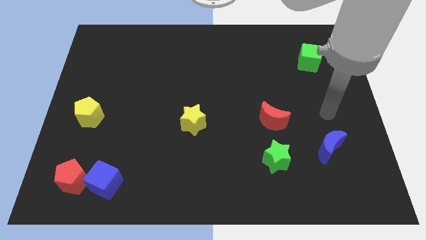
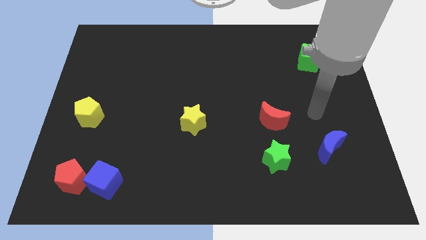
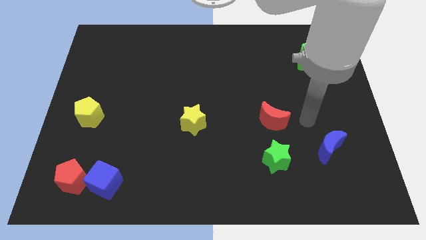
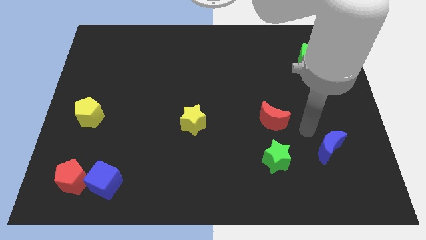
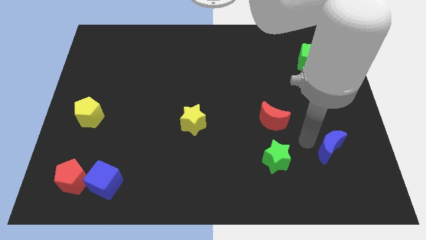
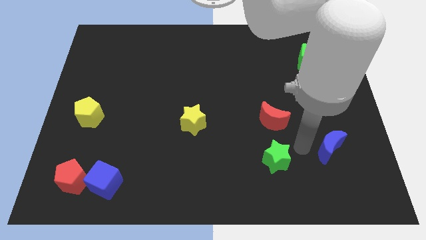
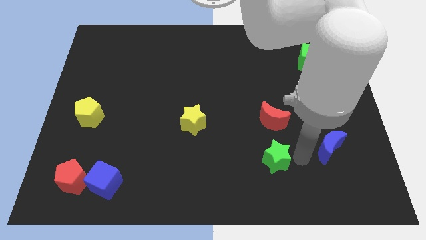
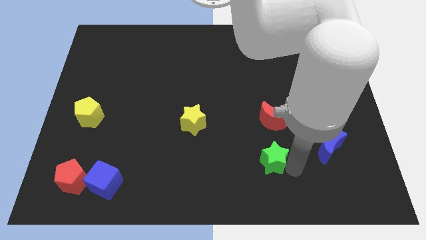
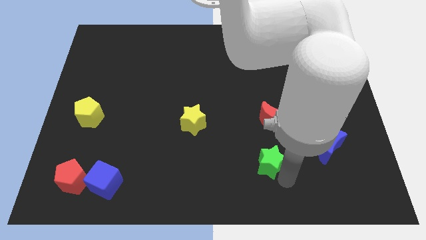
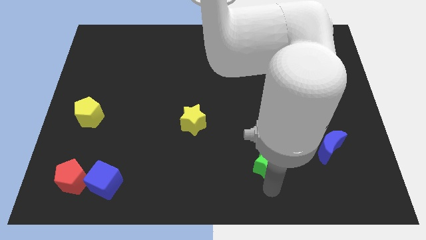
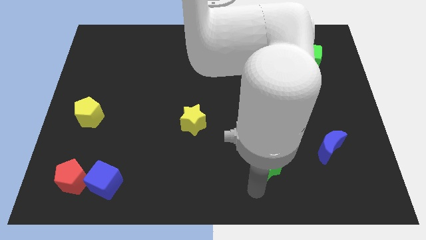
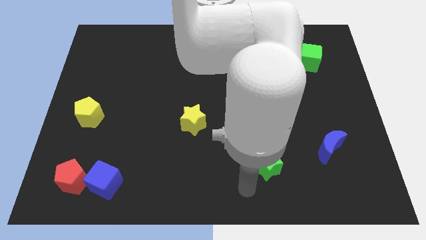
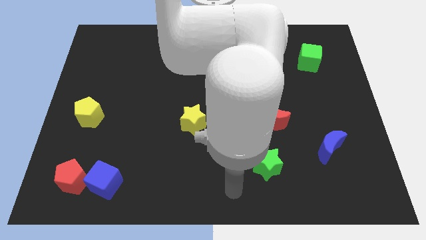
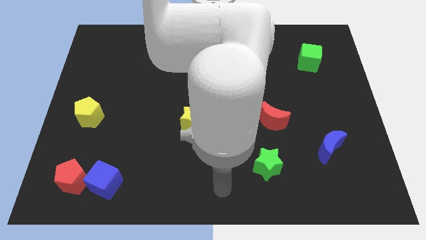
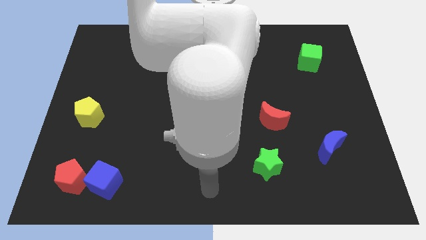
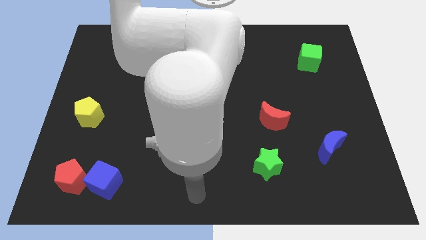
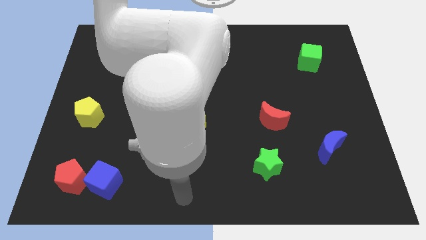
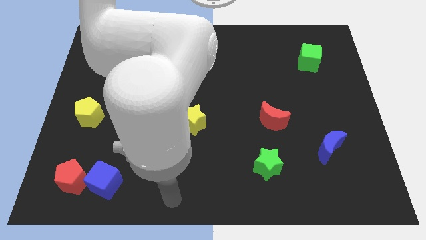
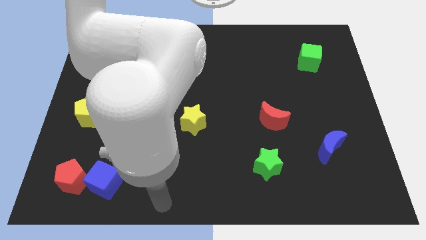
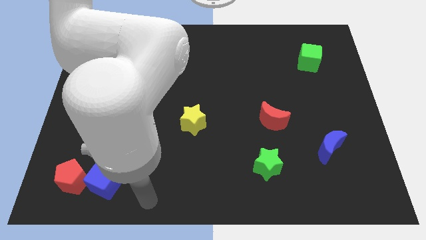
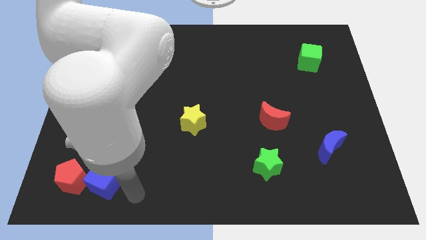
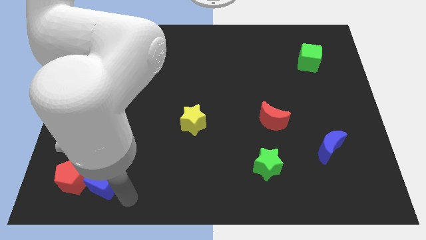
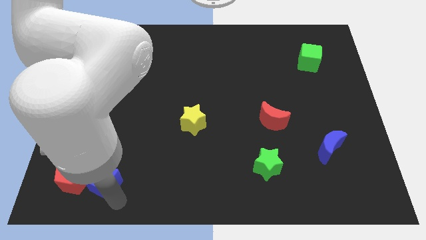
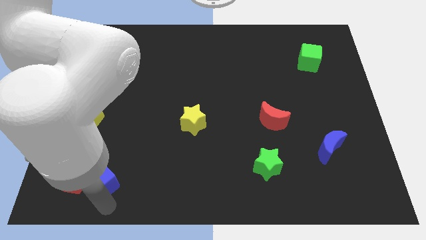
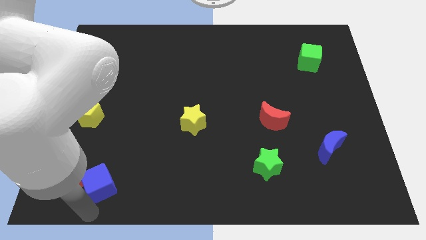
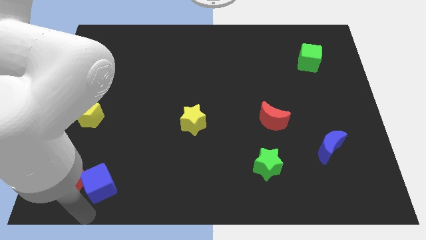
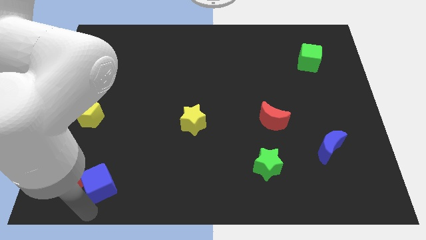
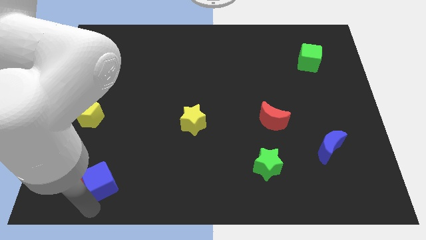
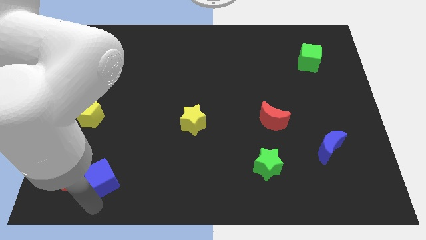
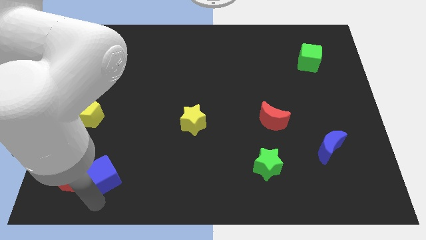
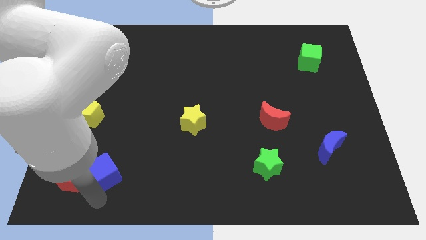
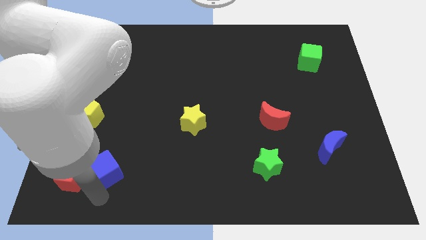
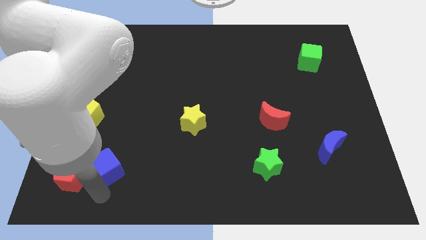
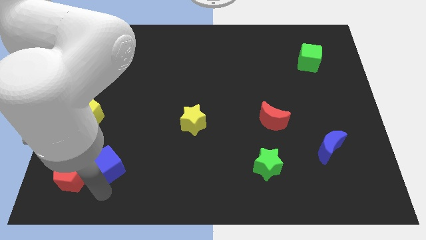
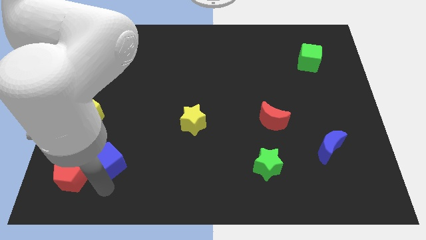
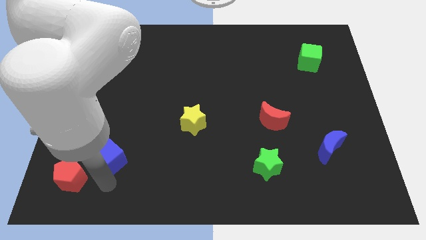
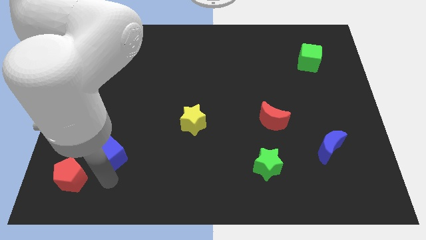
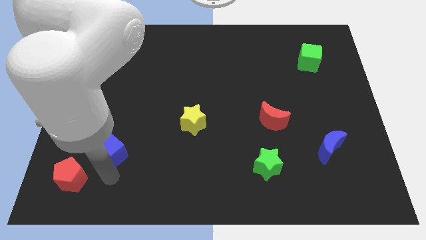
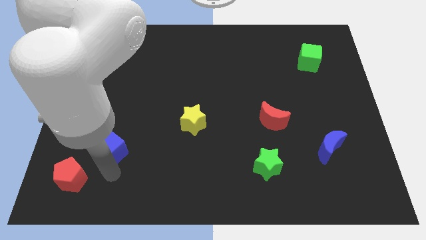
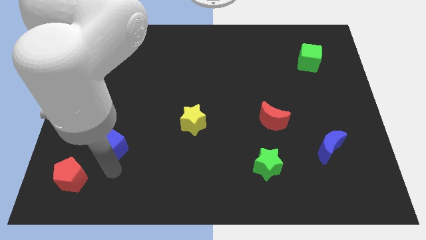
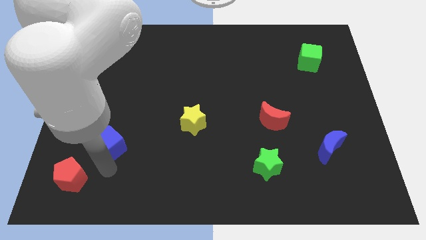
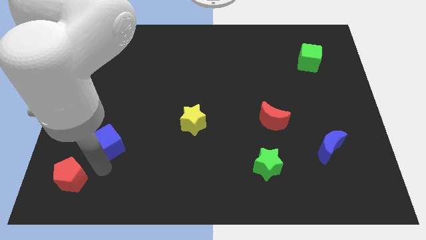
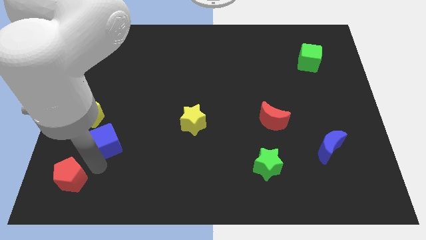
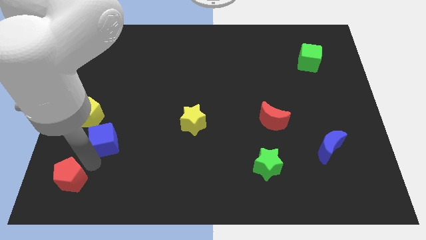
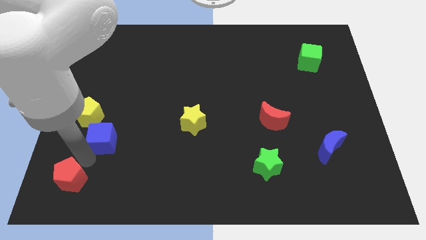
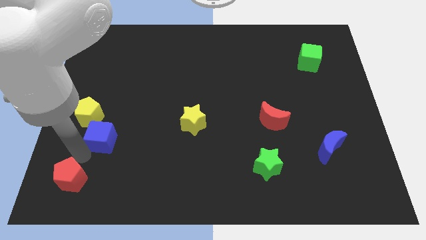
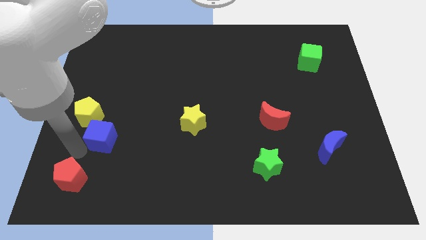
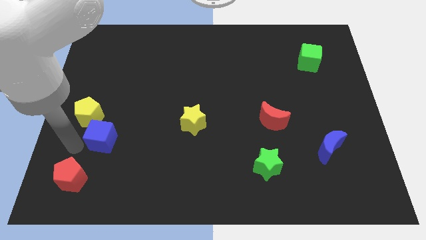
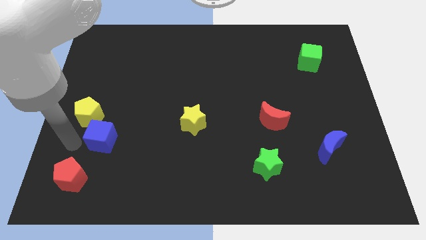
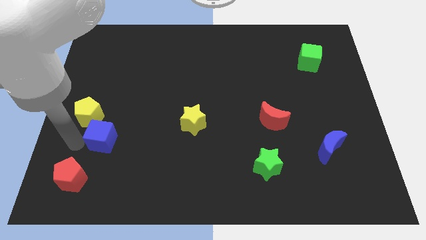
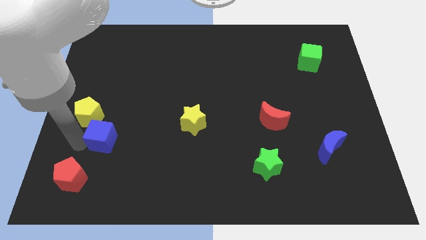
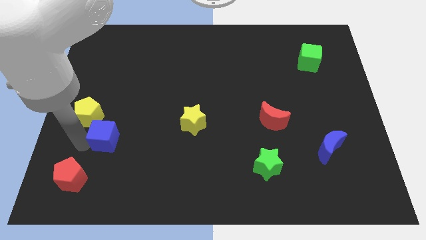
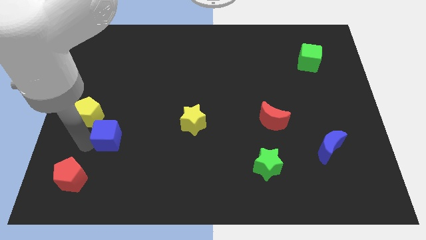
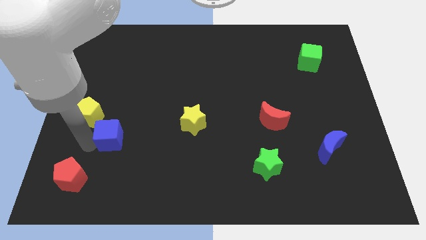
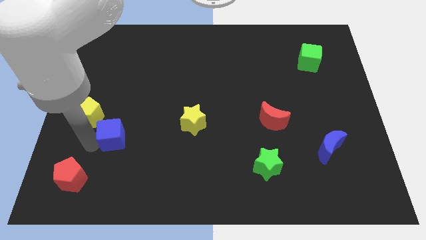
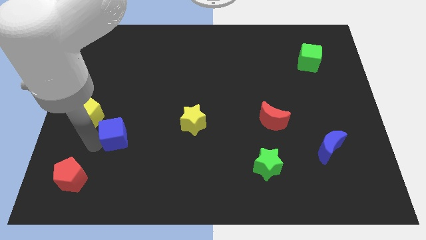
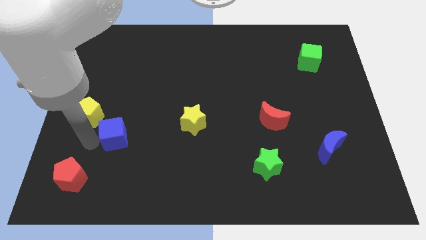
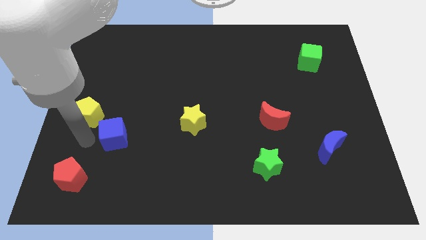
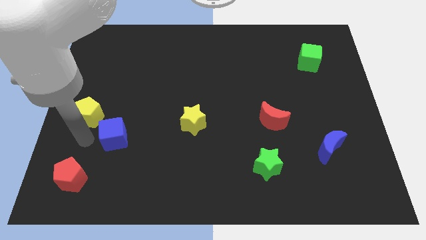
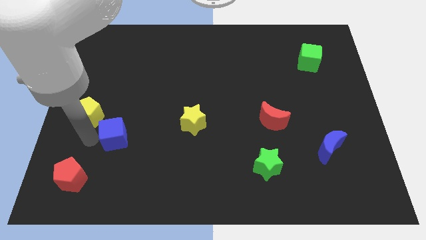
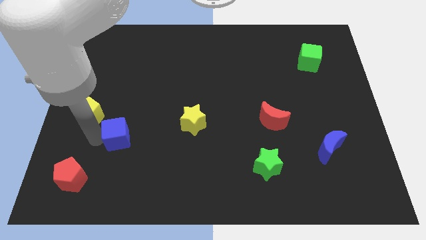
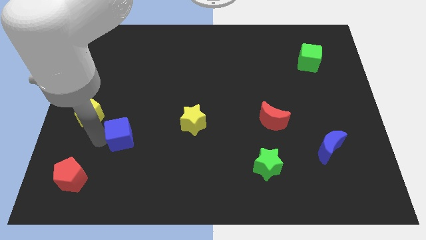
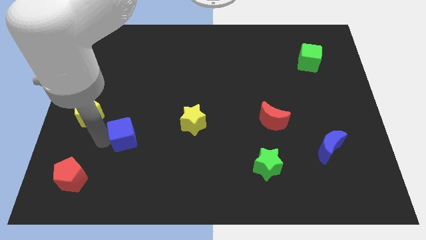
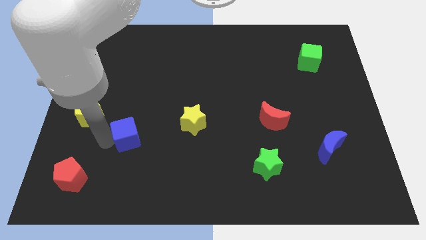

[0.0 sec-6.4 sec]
move the blue cube to the left of the yellow star

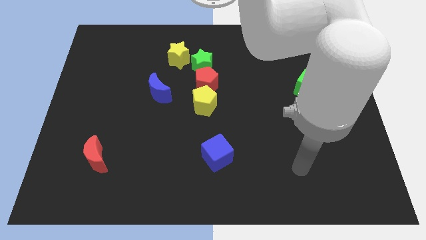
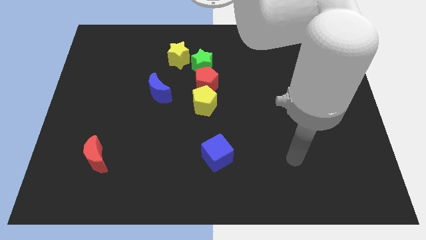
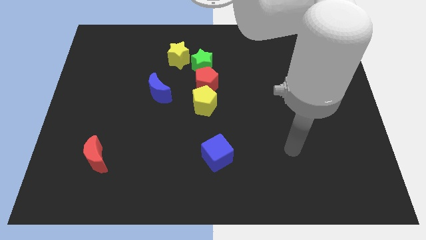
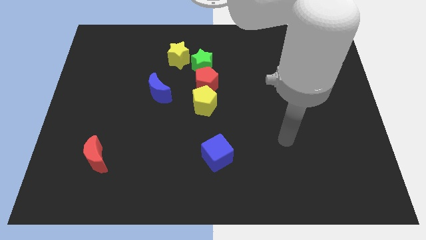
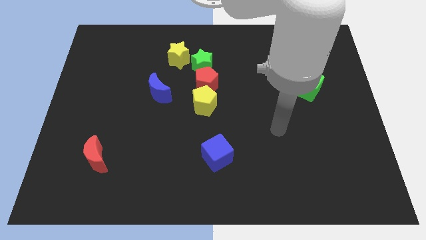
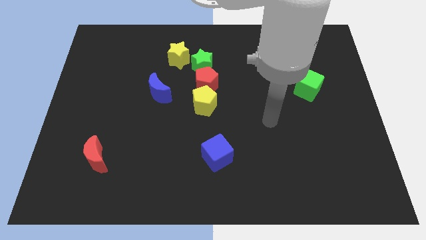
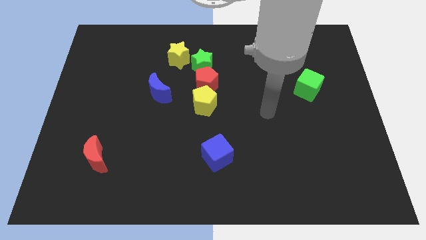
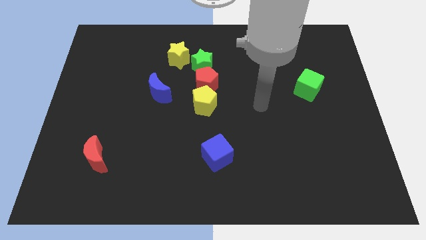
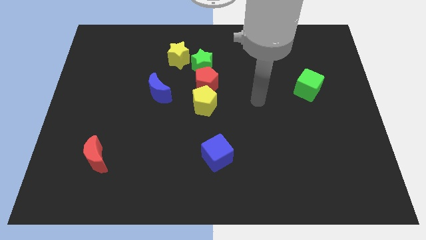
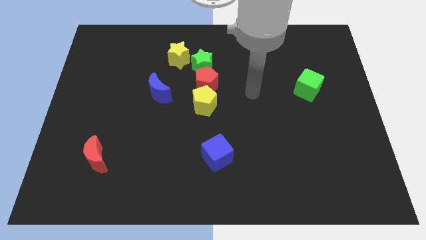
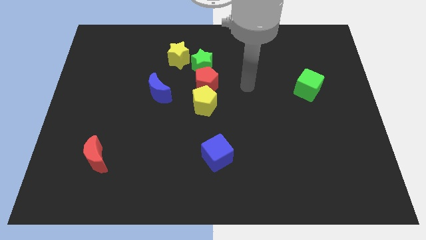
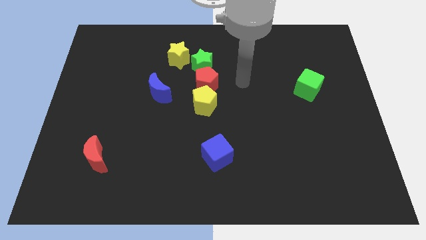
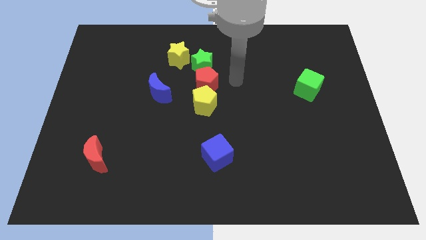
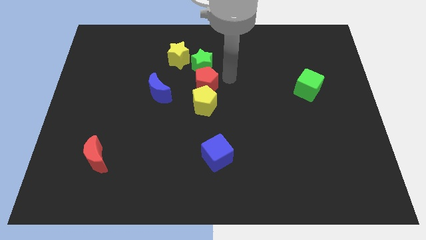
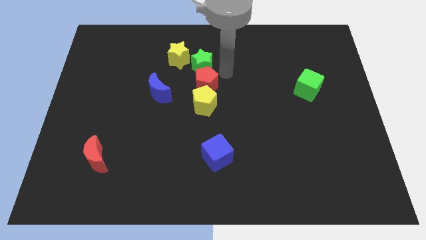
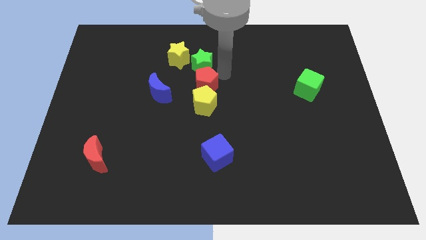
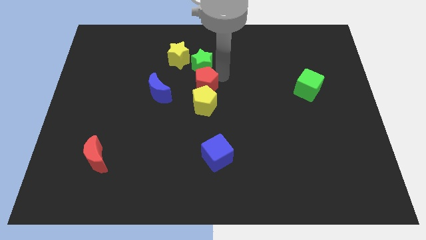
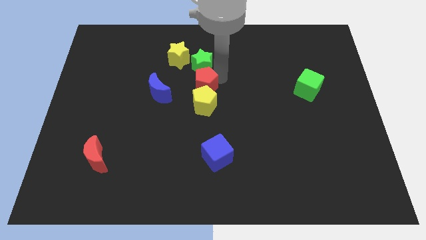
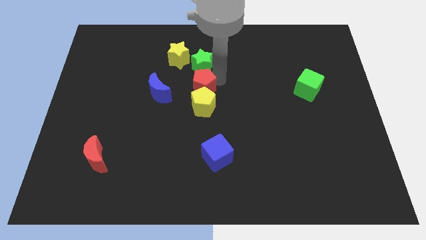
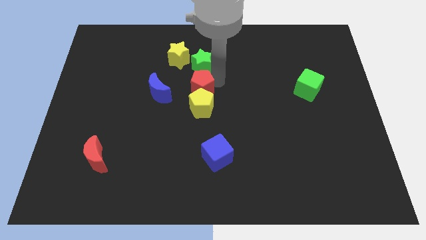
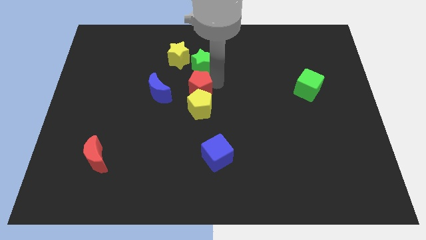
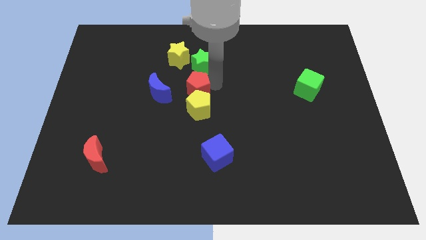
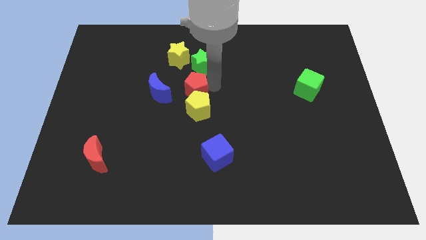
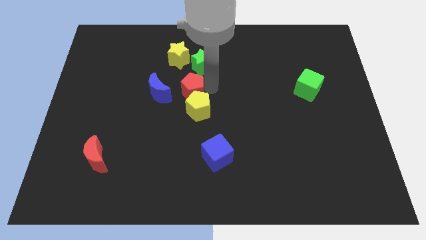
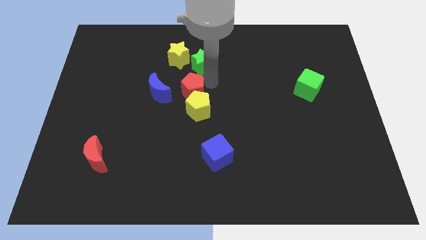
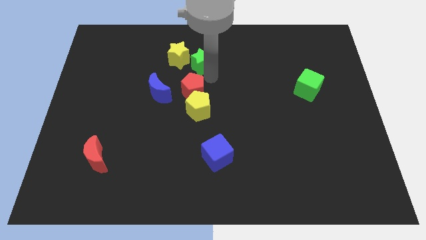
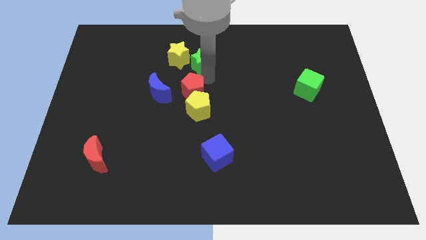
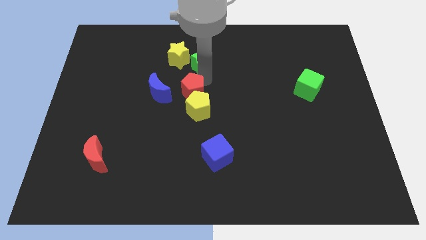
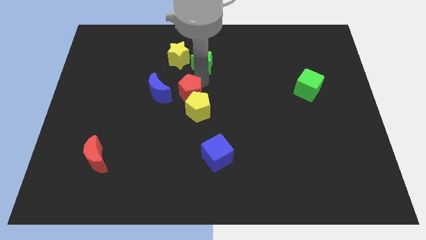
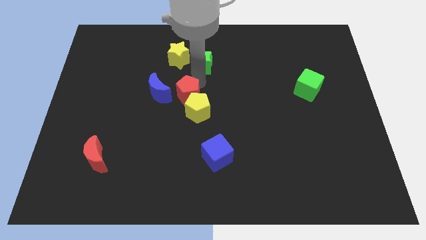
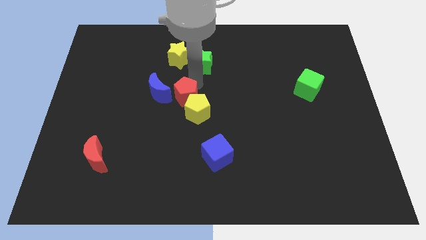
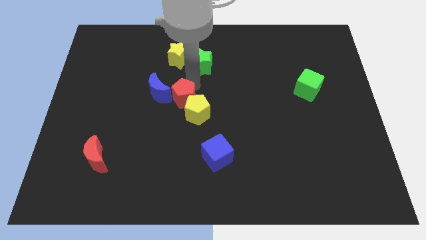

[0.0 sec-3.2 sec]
push the red pentagon to the left of the yellow pentagon
